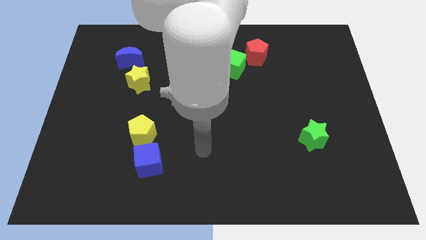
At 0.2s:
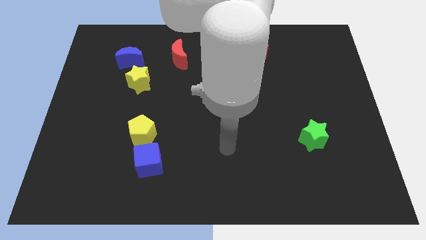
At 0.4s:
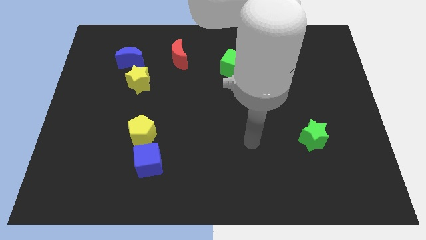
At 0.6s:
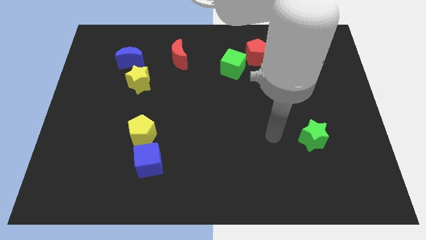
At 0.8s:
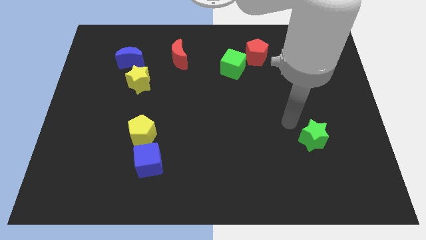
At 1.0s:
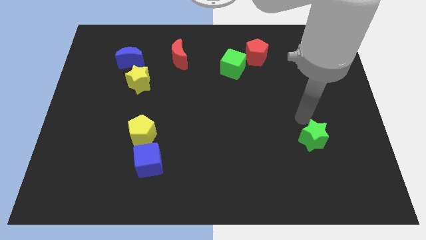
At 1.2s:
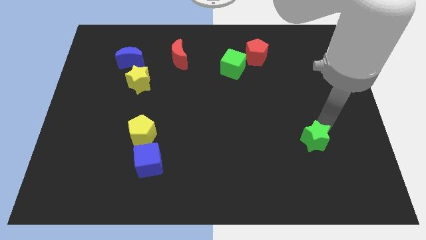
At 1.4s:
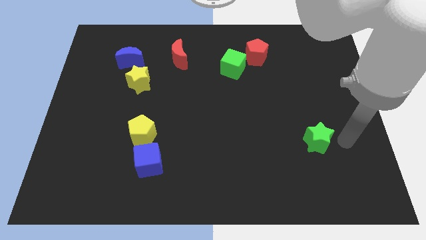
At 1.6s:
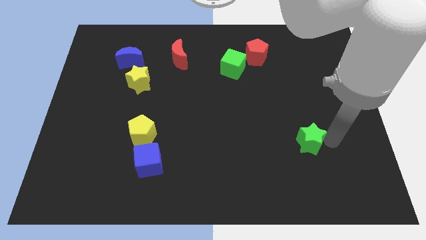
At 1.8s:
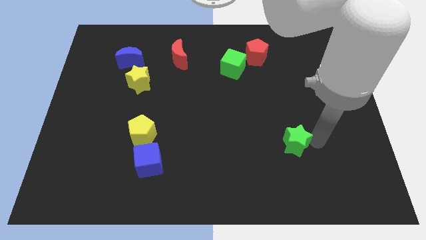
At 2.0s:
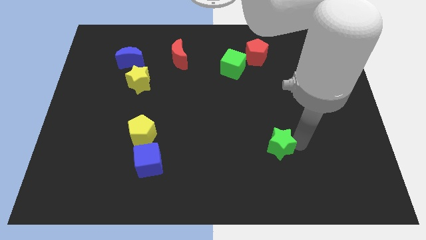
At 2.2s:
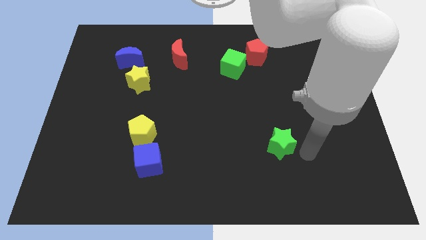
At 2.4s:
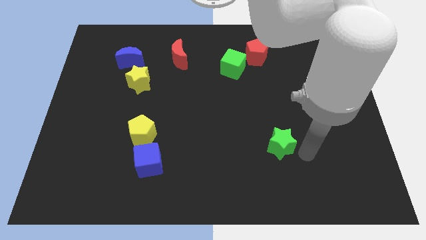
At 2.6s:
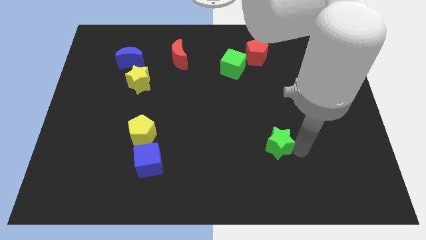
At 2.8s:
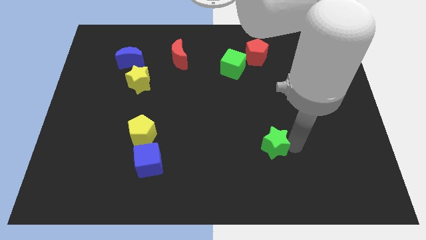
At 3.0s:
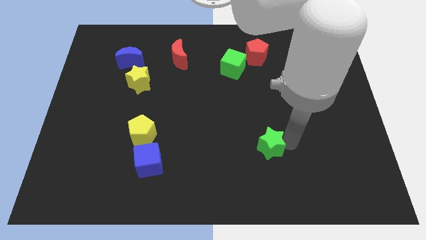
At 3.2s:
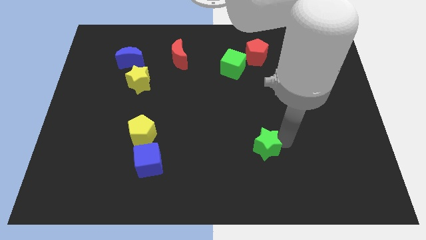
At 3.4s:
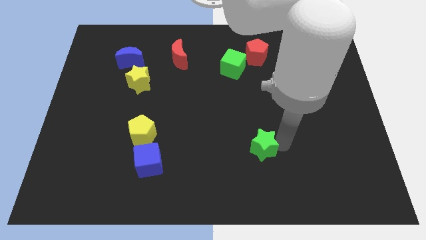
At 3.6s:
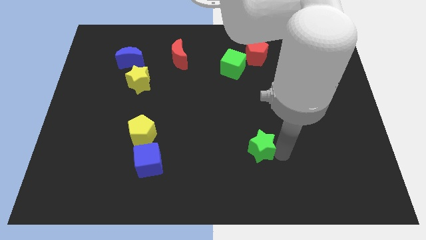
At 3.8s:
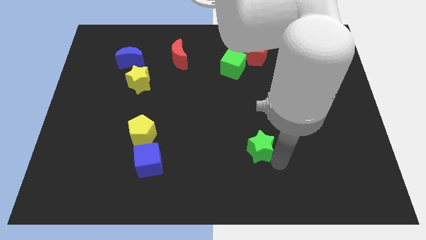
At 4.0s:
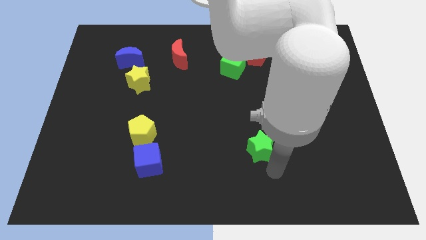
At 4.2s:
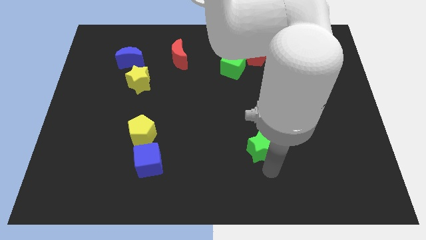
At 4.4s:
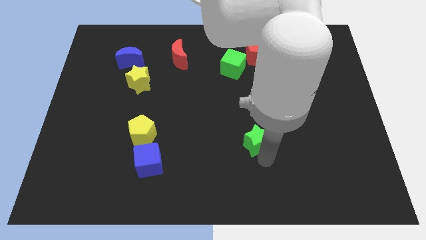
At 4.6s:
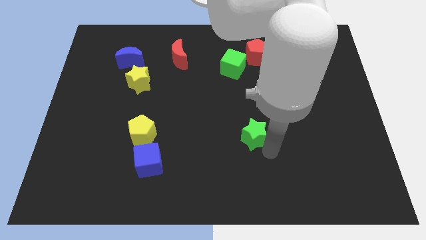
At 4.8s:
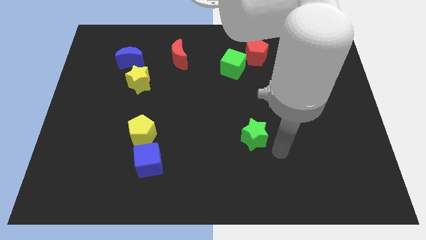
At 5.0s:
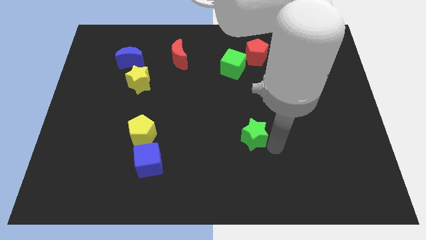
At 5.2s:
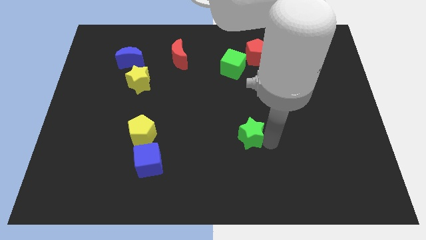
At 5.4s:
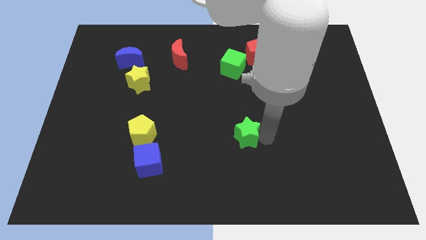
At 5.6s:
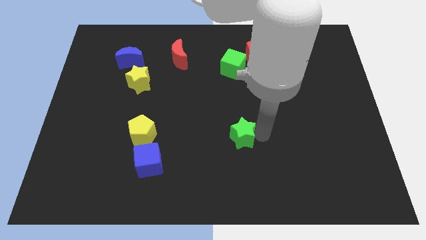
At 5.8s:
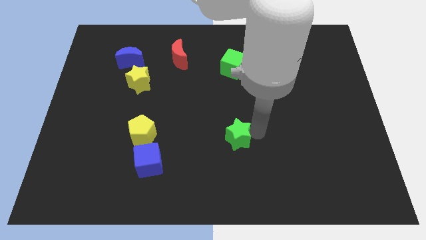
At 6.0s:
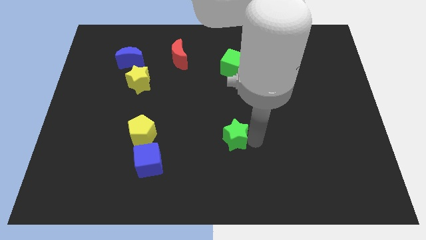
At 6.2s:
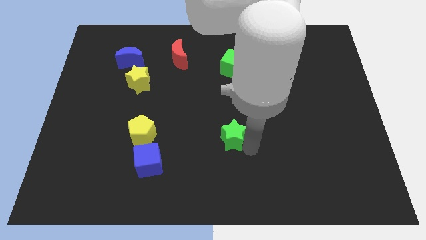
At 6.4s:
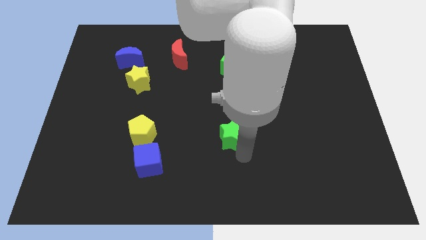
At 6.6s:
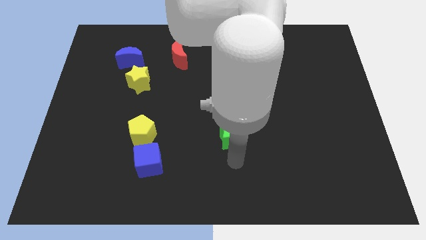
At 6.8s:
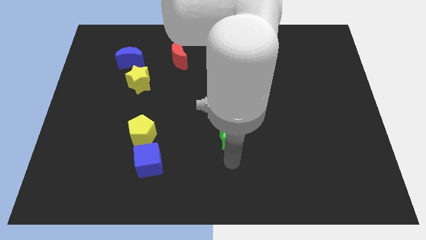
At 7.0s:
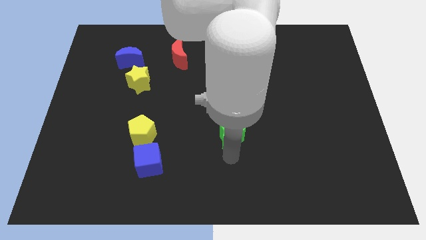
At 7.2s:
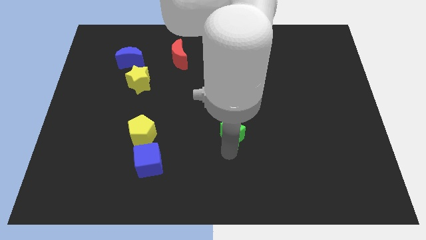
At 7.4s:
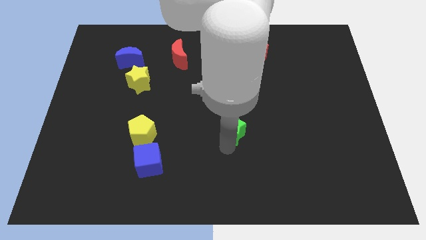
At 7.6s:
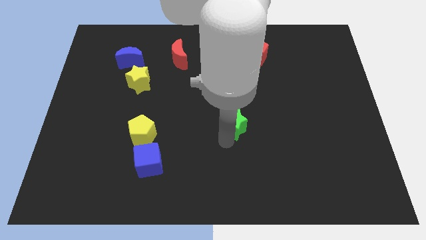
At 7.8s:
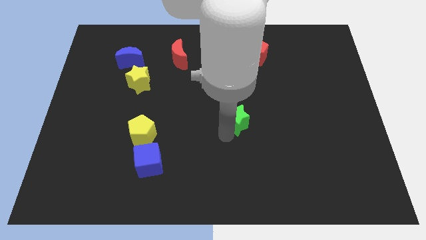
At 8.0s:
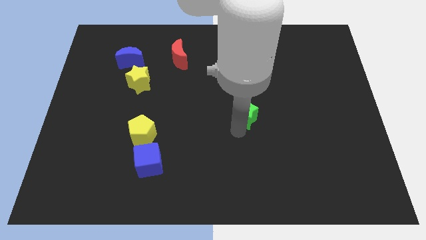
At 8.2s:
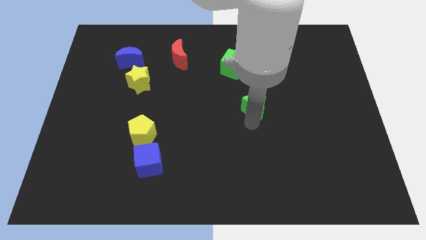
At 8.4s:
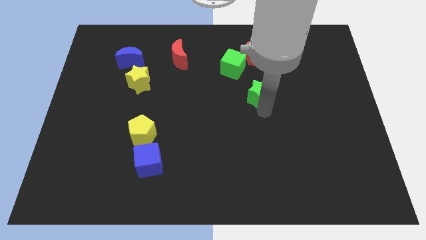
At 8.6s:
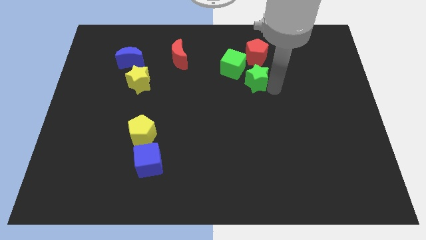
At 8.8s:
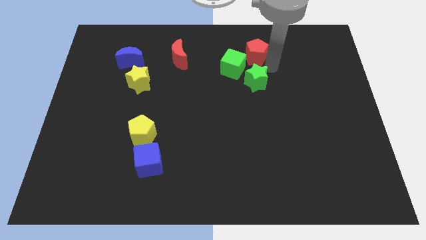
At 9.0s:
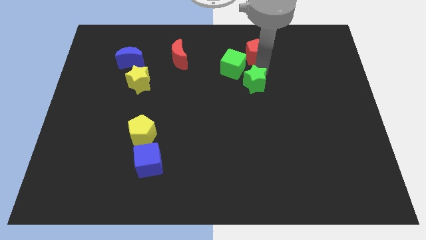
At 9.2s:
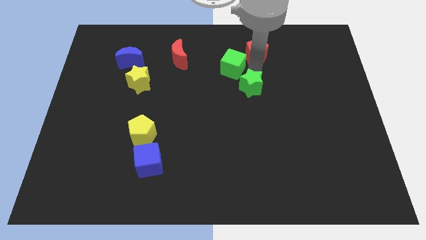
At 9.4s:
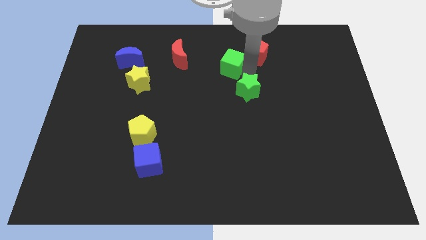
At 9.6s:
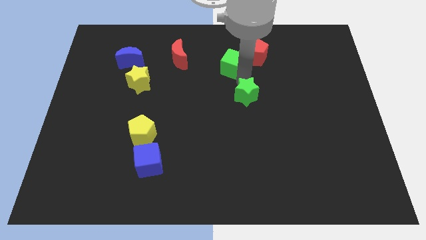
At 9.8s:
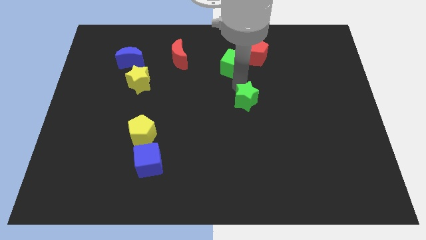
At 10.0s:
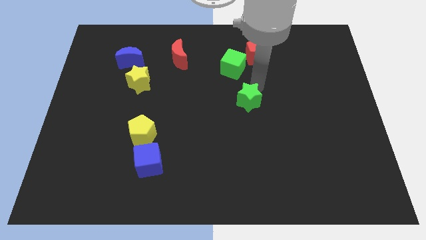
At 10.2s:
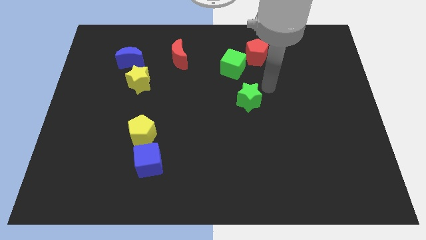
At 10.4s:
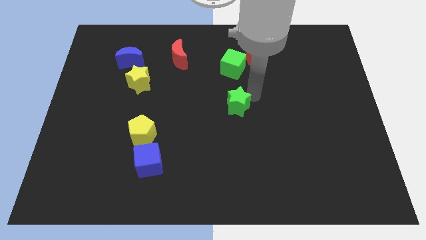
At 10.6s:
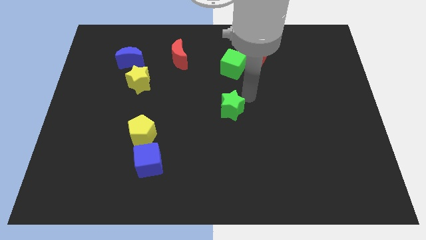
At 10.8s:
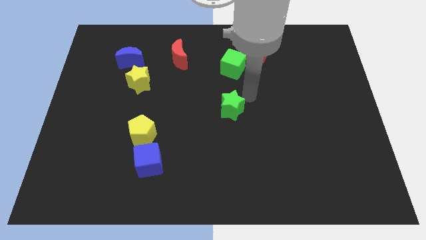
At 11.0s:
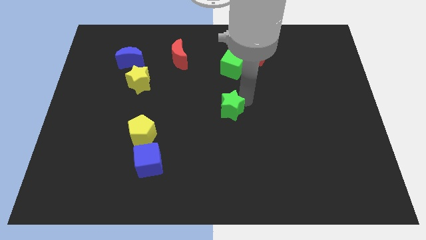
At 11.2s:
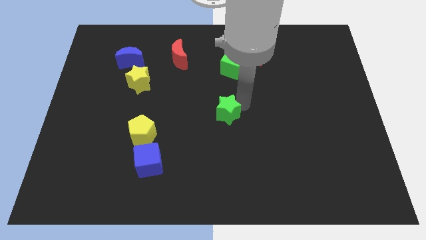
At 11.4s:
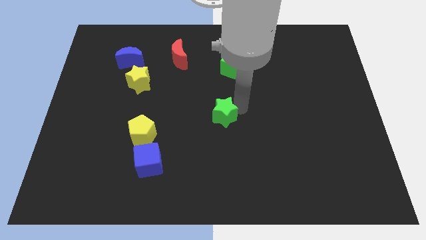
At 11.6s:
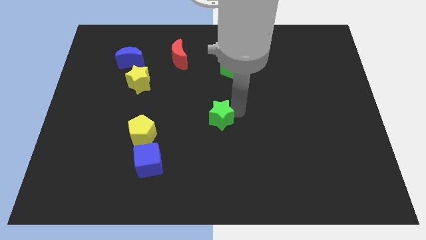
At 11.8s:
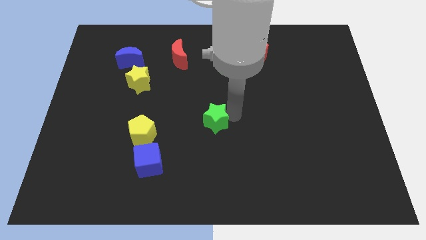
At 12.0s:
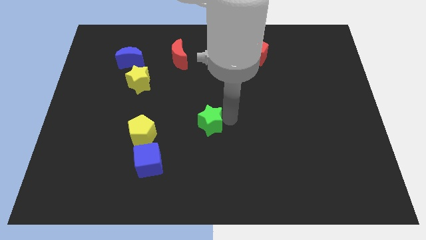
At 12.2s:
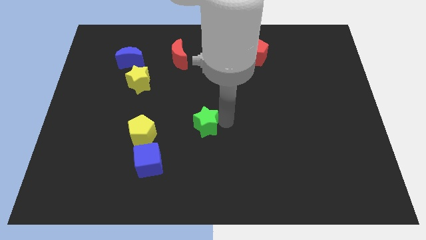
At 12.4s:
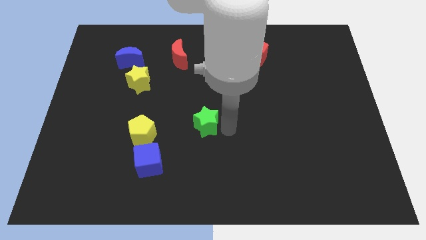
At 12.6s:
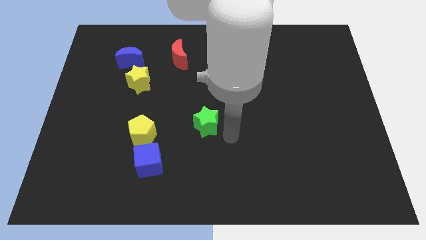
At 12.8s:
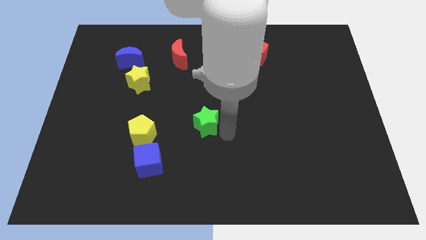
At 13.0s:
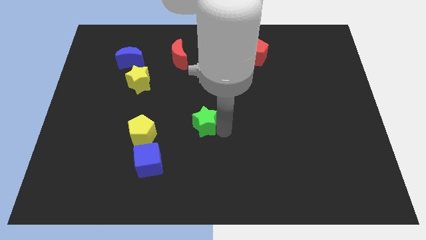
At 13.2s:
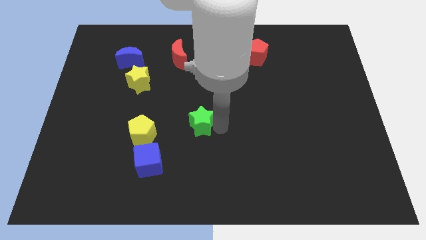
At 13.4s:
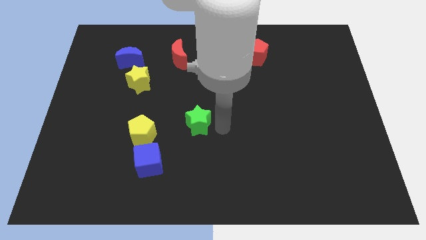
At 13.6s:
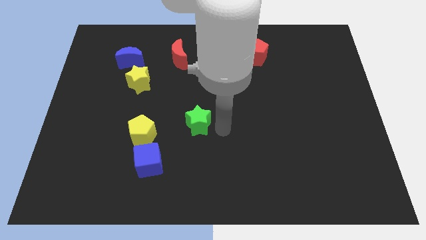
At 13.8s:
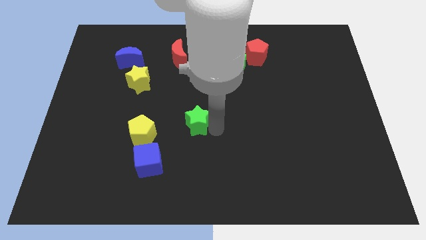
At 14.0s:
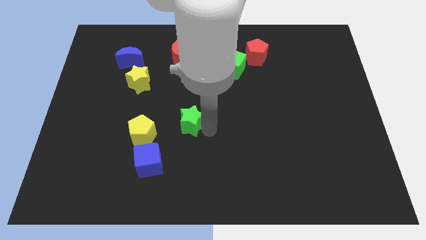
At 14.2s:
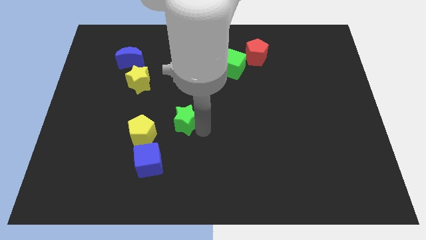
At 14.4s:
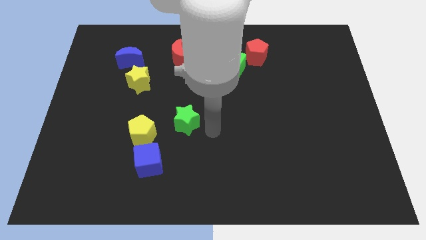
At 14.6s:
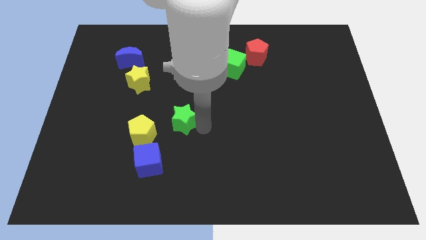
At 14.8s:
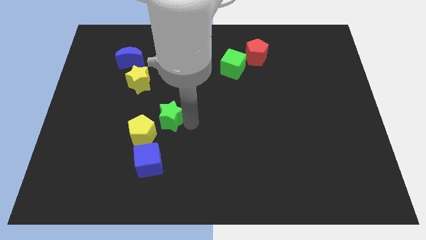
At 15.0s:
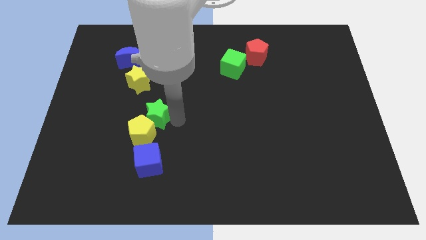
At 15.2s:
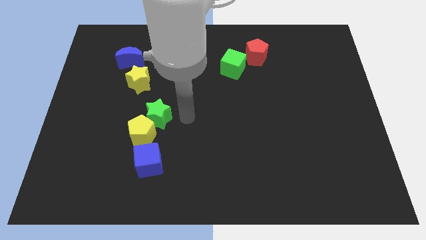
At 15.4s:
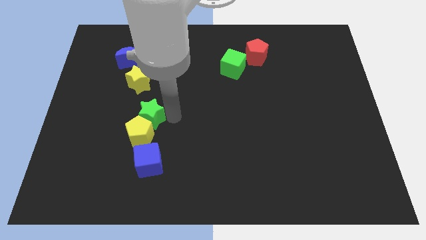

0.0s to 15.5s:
push the green star below the yellow star

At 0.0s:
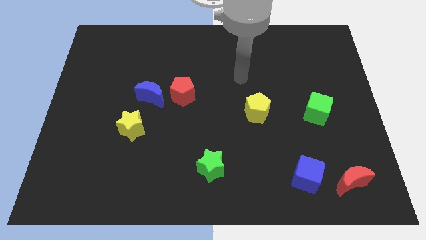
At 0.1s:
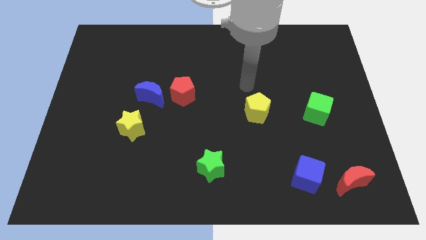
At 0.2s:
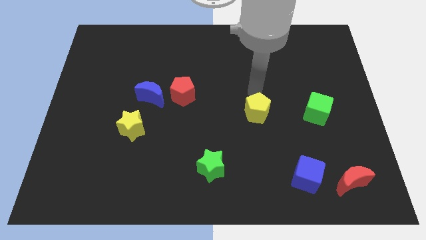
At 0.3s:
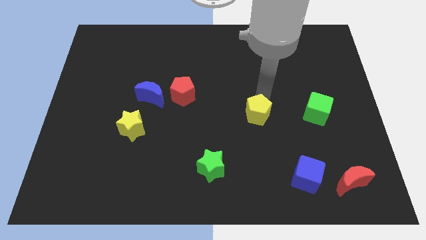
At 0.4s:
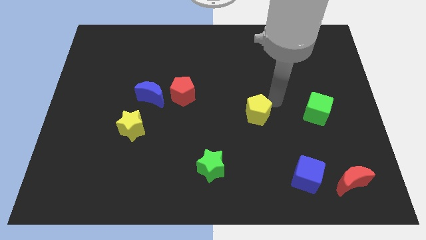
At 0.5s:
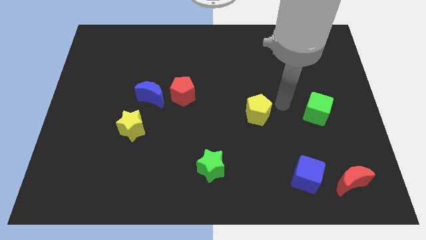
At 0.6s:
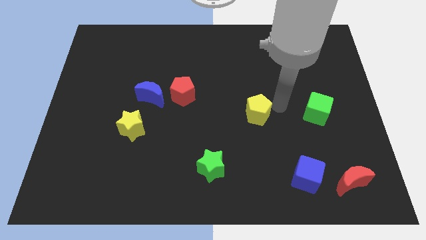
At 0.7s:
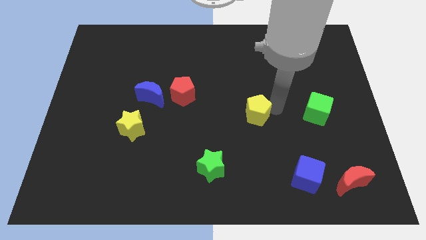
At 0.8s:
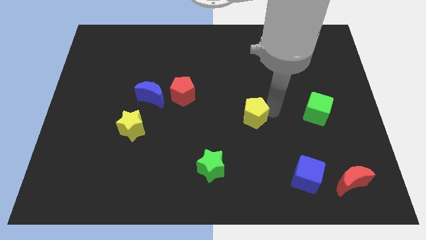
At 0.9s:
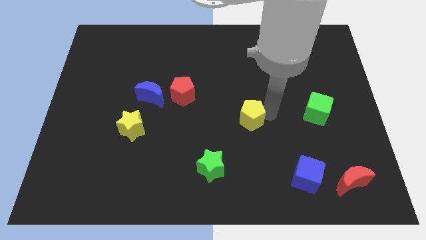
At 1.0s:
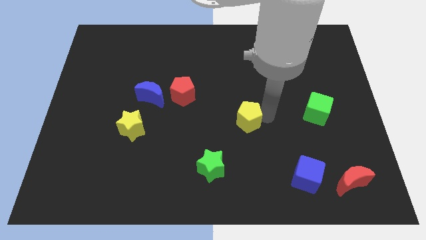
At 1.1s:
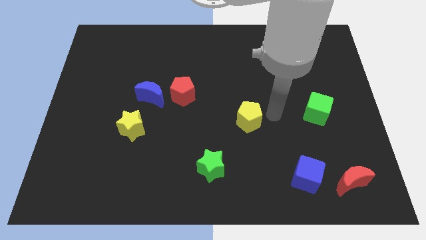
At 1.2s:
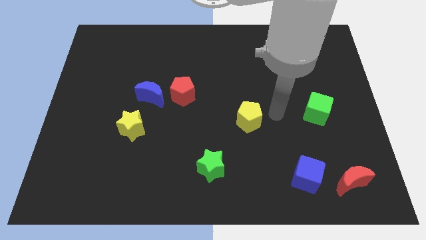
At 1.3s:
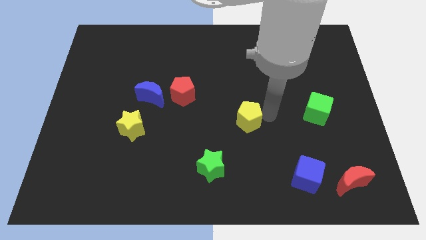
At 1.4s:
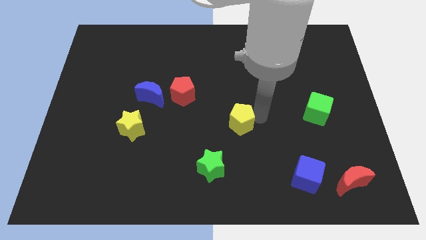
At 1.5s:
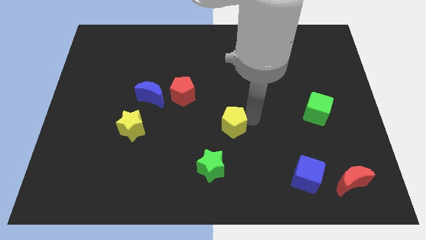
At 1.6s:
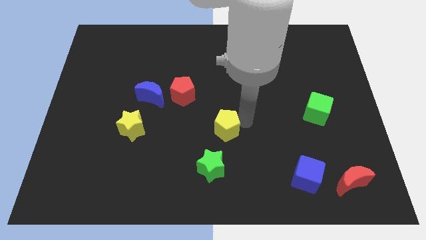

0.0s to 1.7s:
move the yellow pentagon to the top side of the green star
